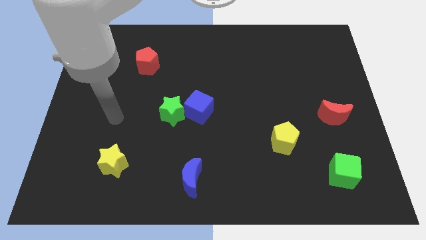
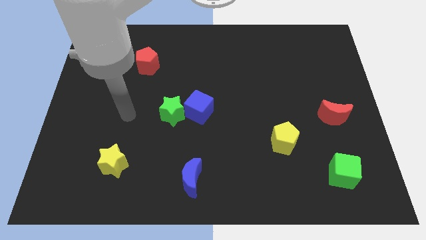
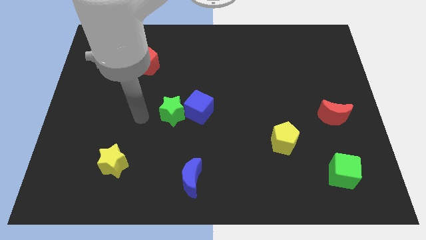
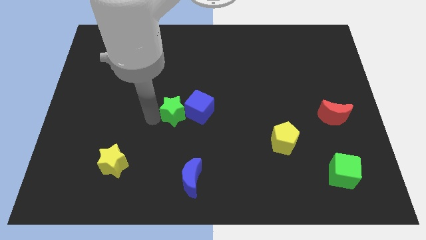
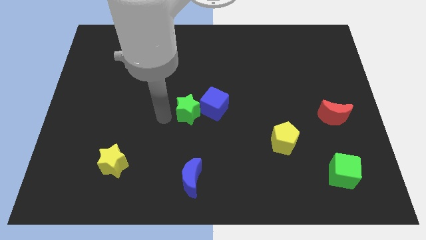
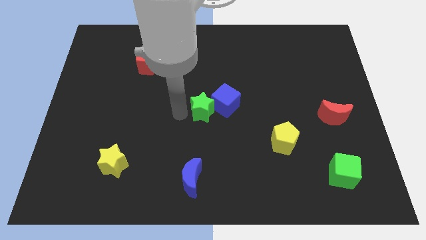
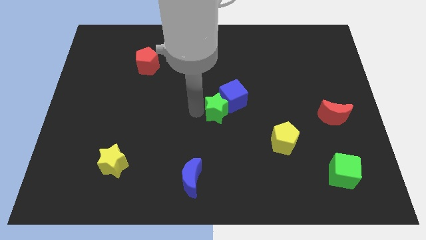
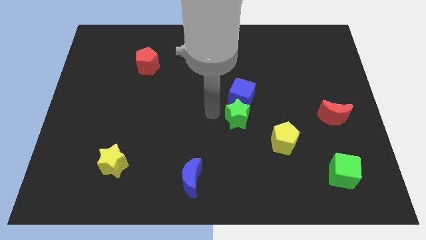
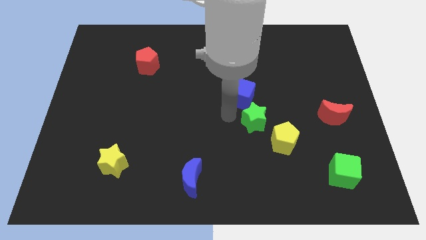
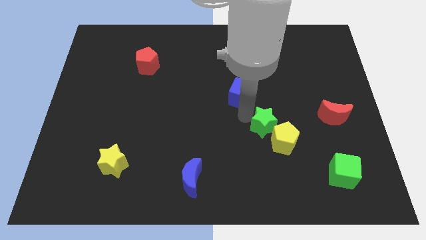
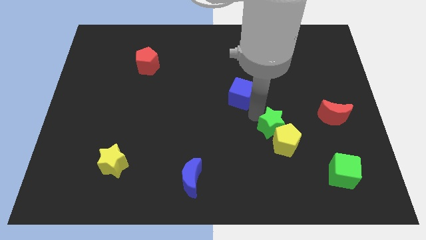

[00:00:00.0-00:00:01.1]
move the blue cube away from the green star

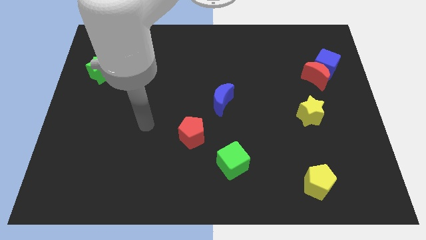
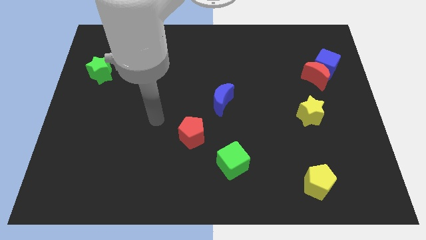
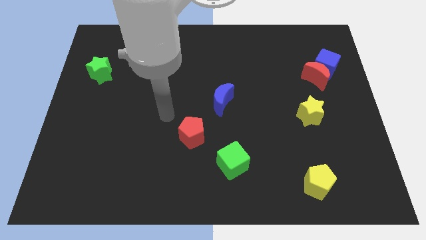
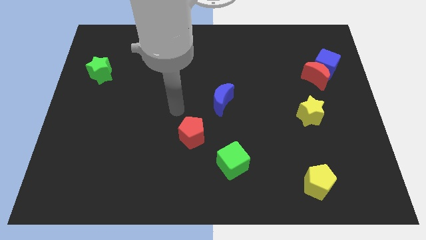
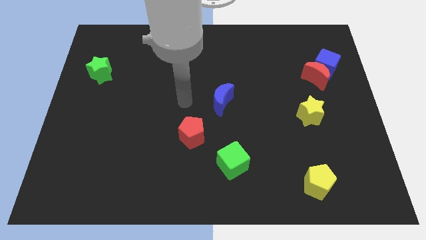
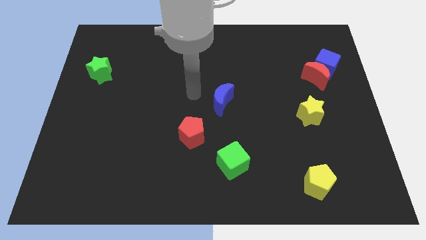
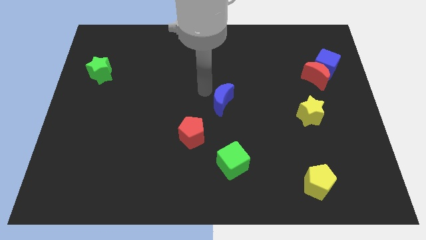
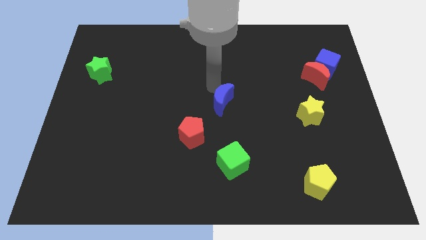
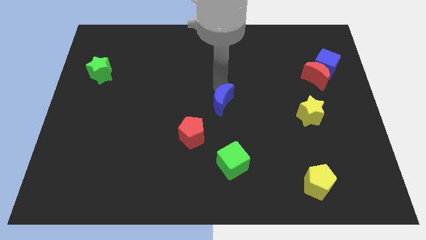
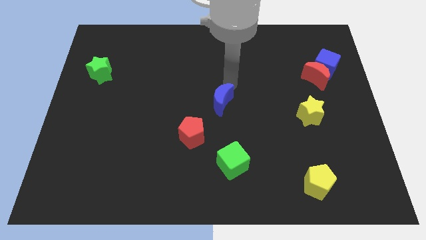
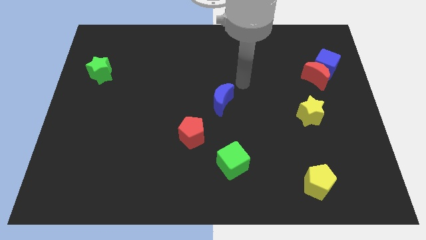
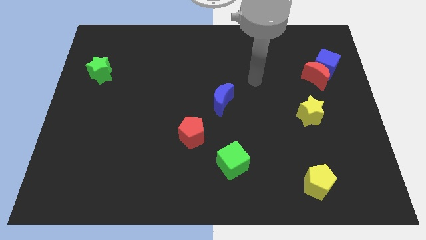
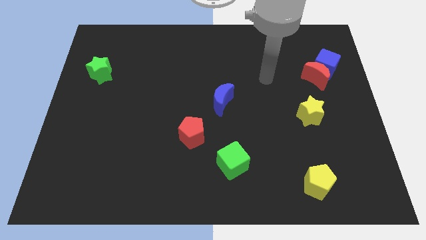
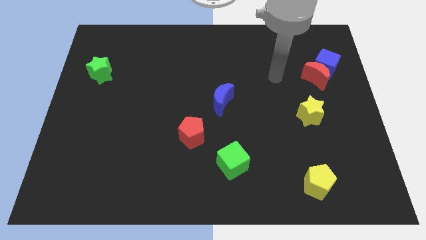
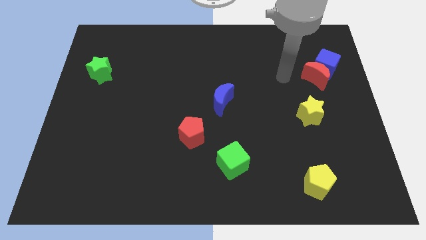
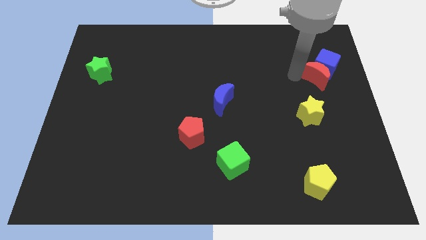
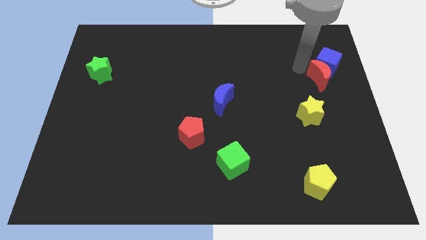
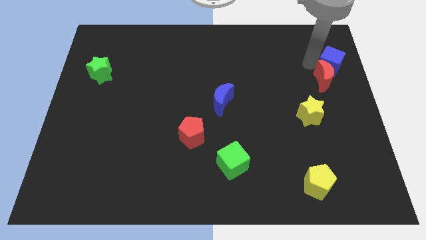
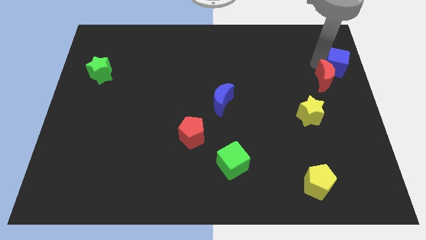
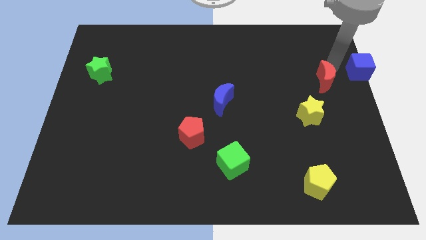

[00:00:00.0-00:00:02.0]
pull the red moon apart from the blue cube

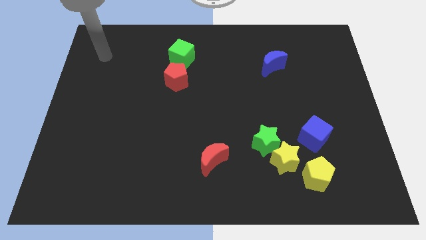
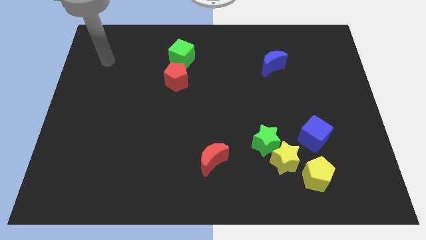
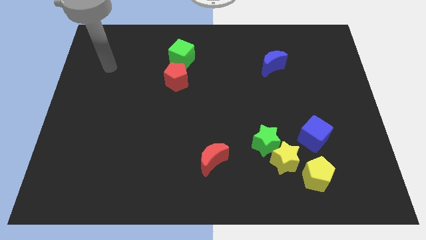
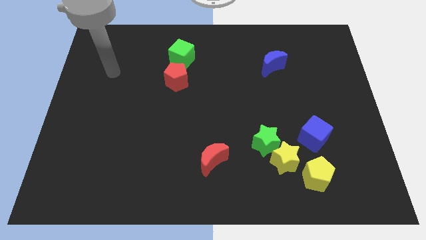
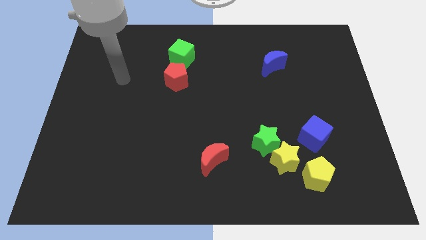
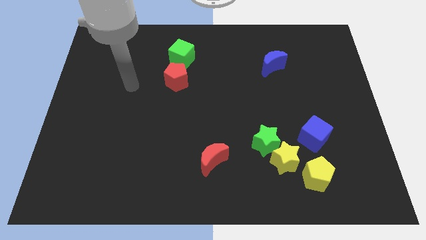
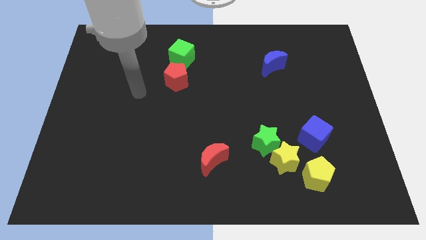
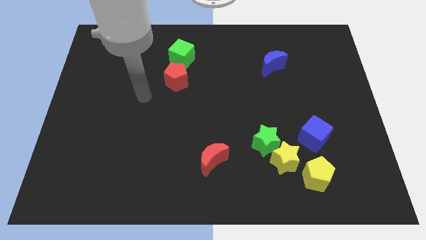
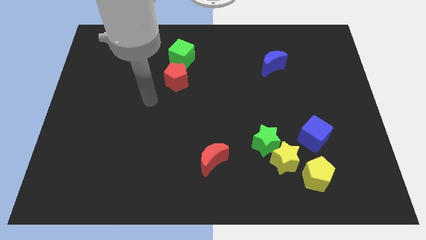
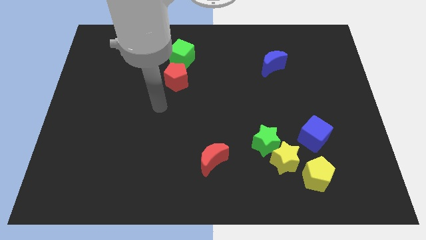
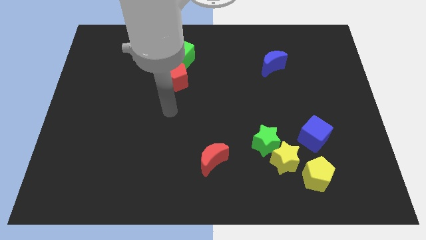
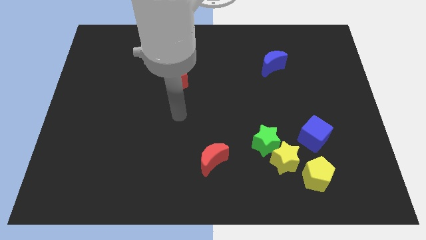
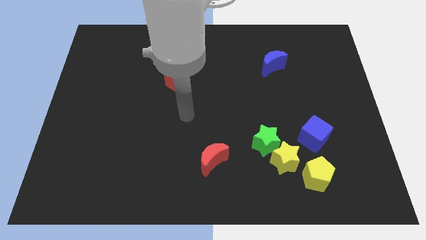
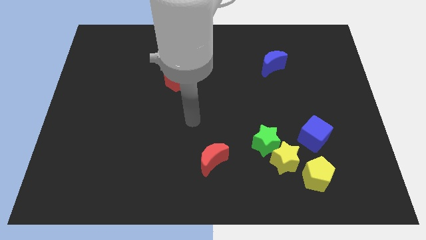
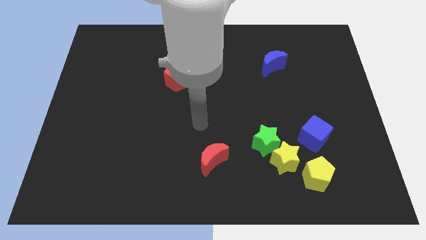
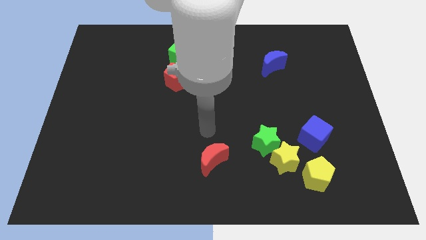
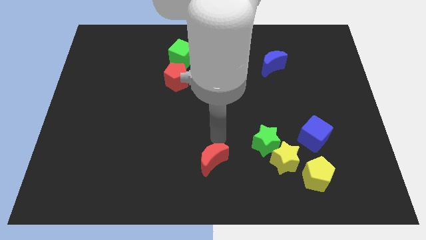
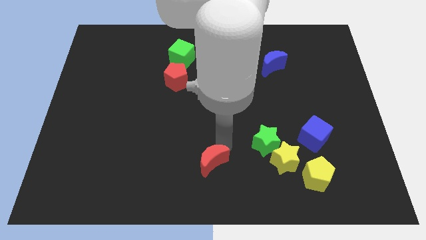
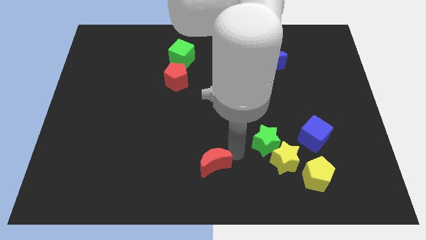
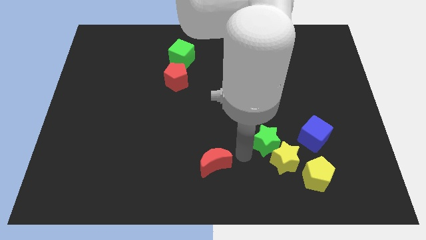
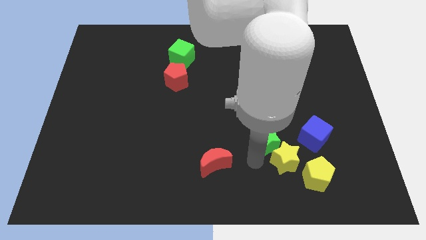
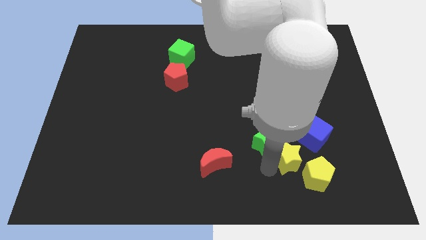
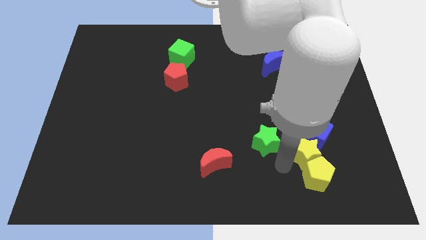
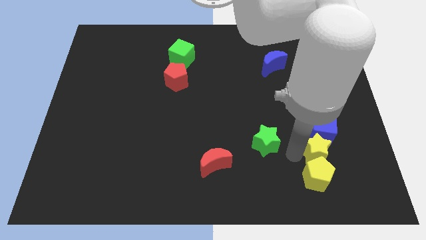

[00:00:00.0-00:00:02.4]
pull the green star apart from the yellow star

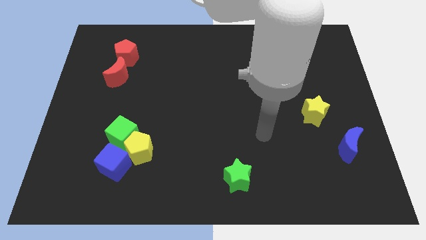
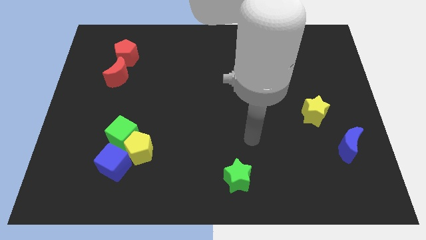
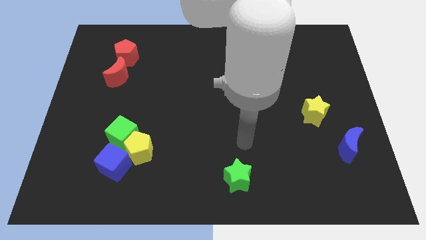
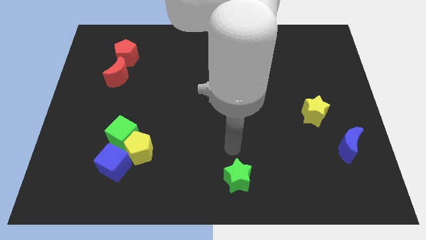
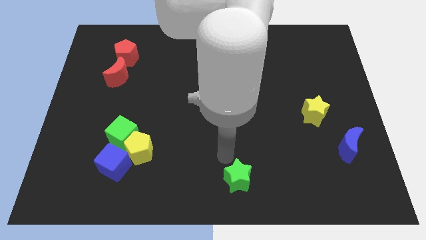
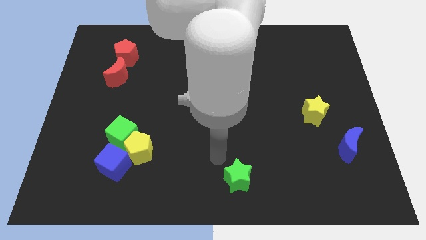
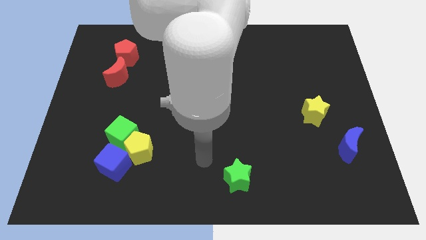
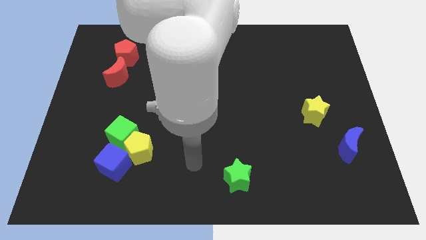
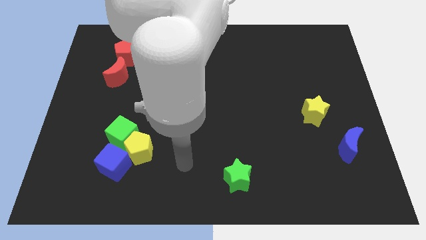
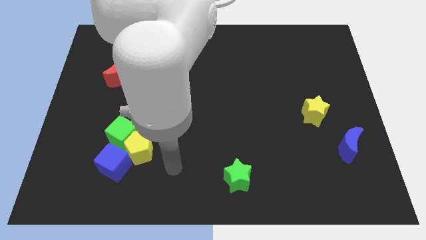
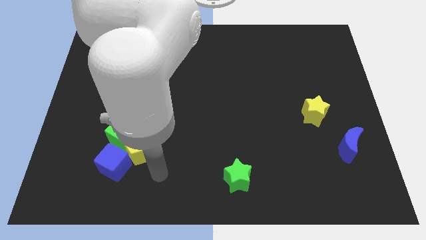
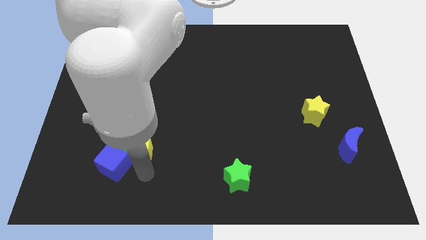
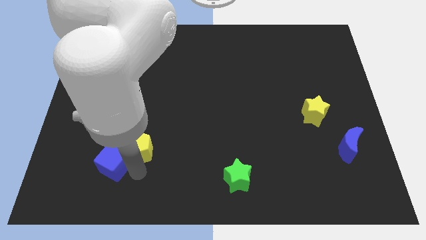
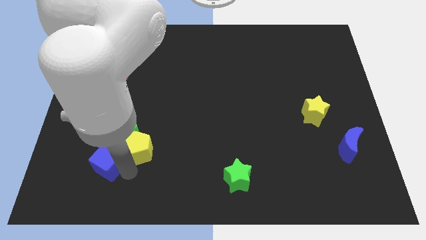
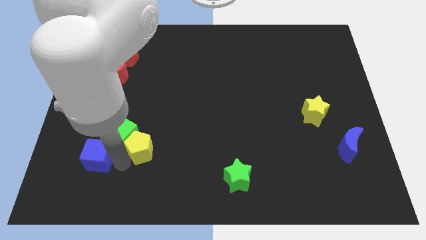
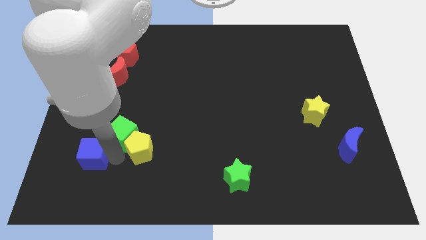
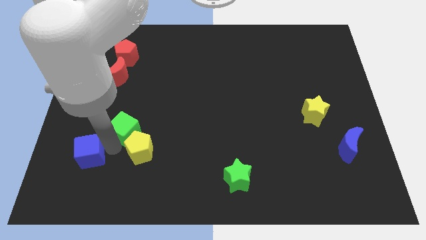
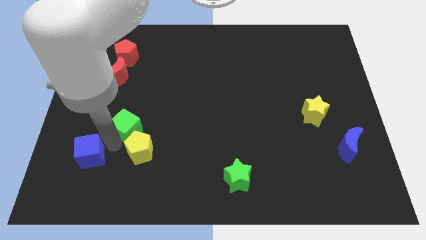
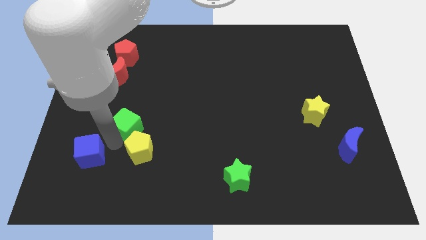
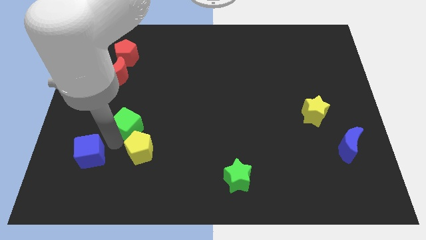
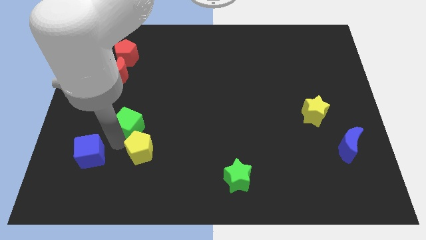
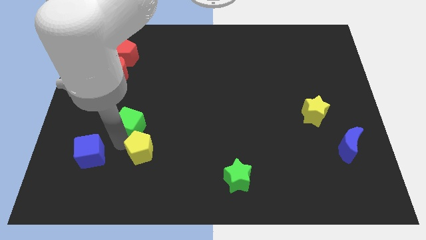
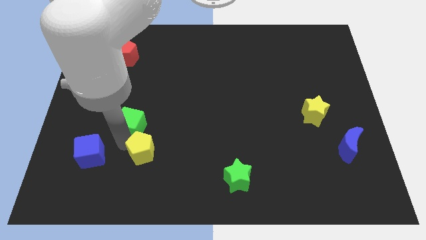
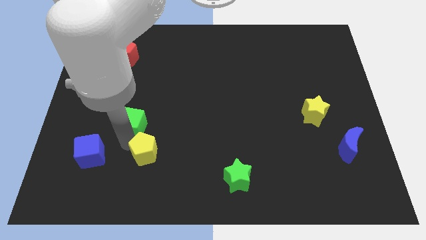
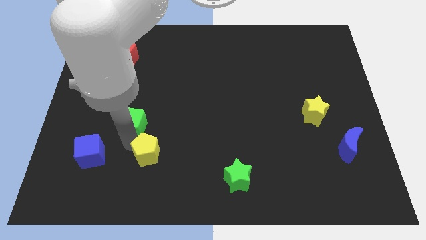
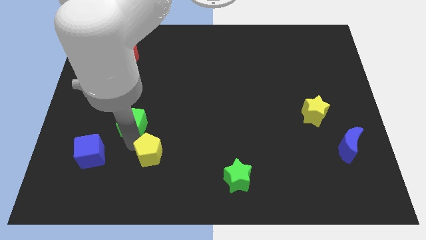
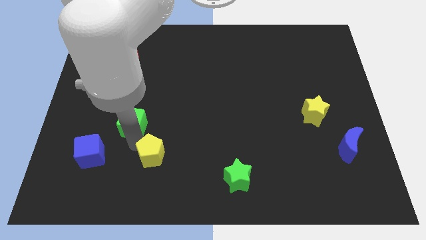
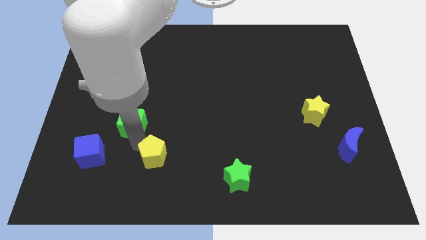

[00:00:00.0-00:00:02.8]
separate the yellow pentagon from the green cube and blue cube

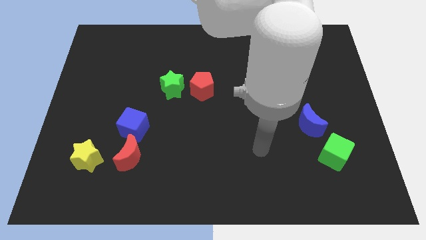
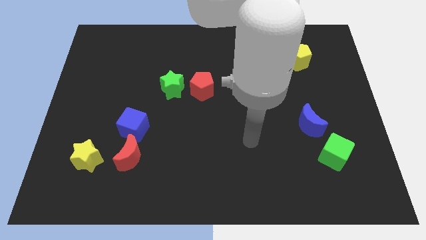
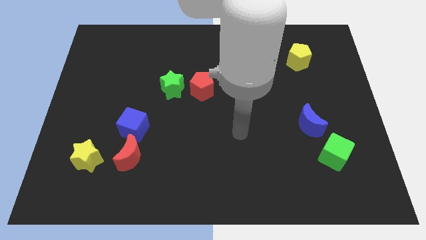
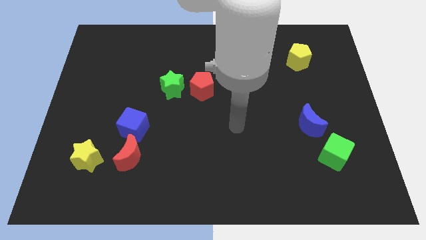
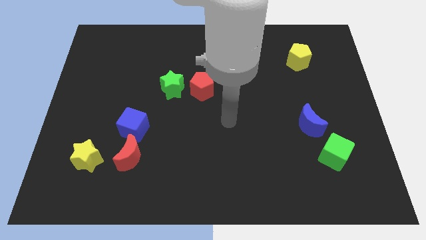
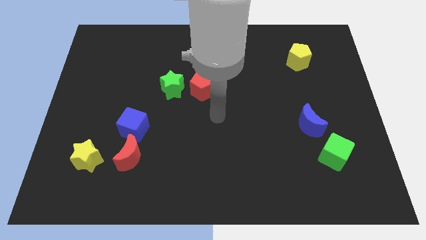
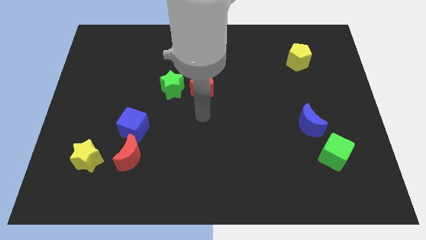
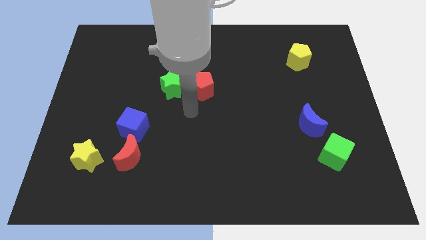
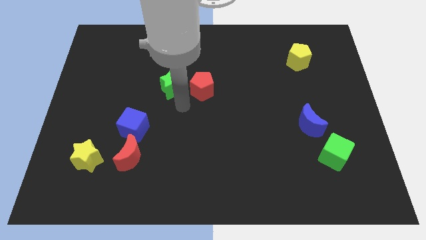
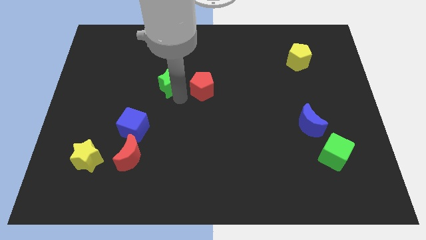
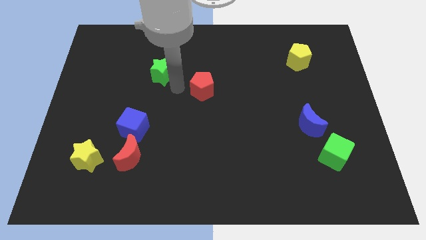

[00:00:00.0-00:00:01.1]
separate the red pentagon from the green star
